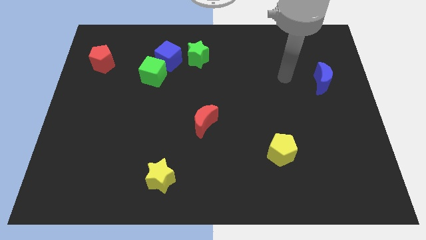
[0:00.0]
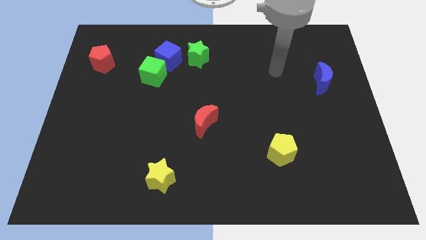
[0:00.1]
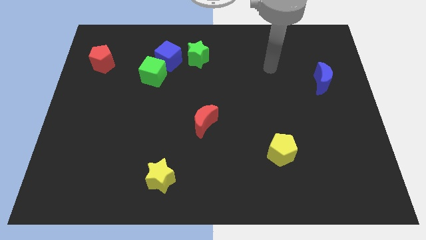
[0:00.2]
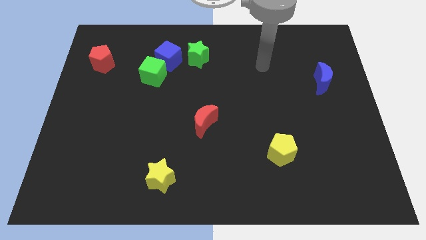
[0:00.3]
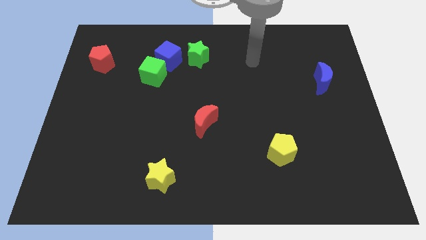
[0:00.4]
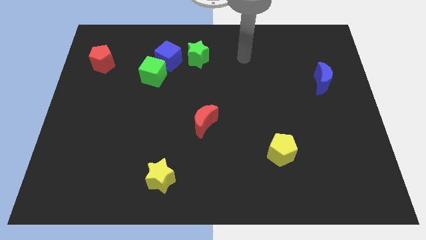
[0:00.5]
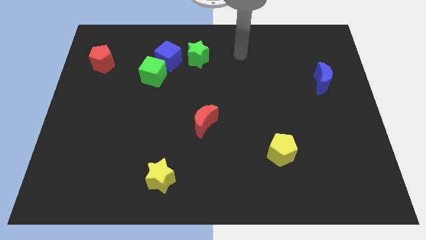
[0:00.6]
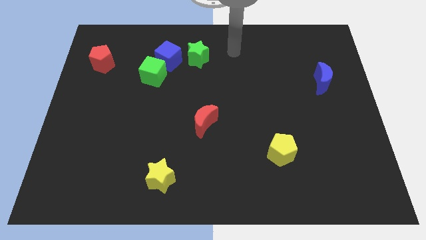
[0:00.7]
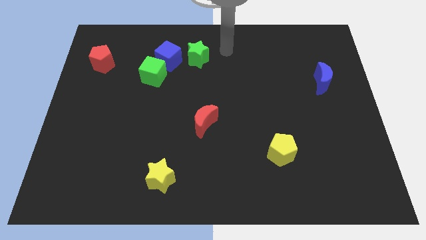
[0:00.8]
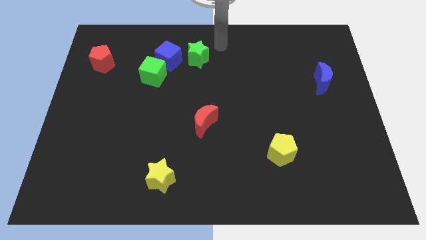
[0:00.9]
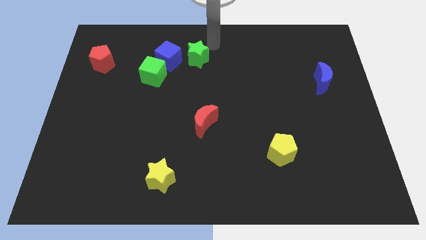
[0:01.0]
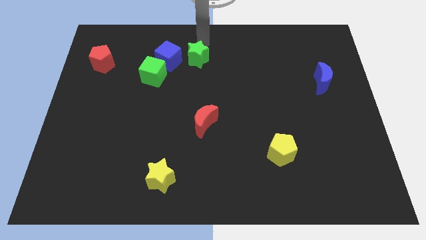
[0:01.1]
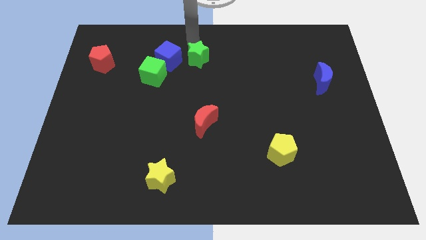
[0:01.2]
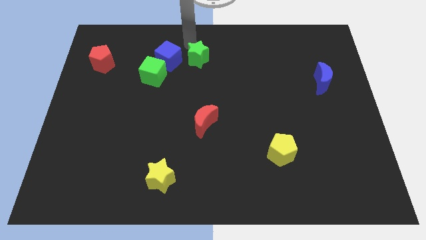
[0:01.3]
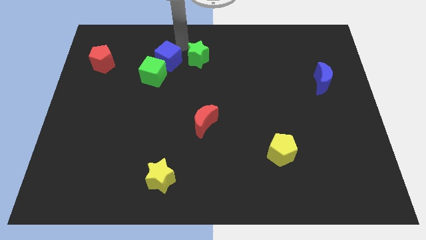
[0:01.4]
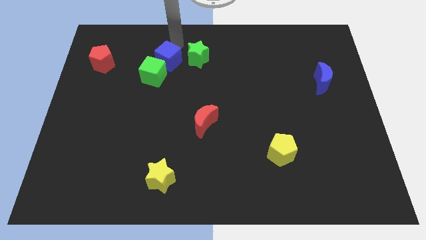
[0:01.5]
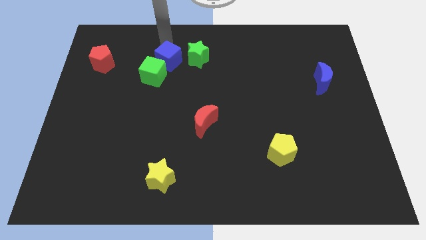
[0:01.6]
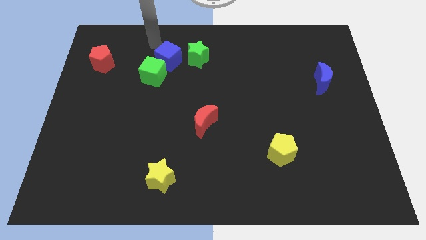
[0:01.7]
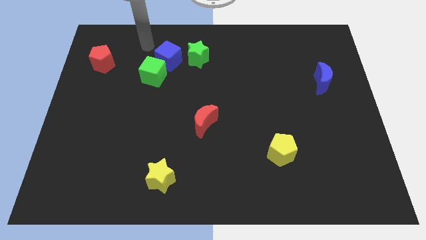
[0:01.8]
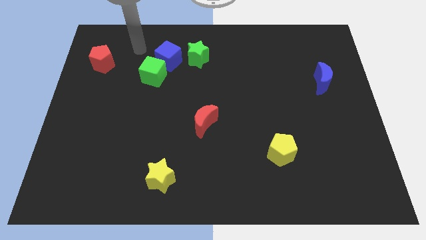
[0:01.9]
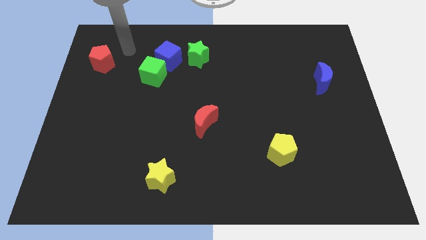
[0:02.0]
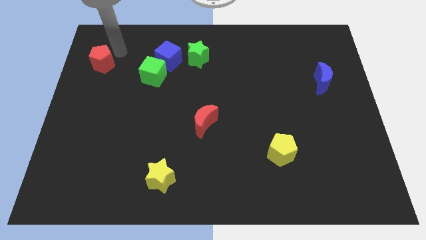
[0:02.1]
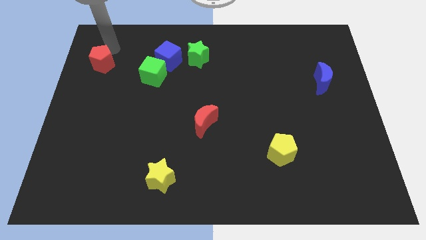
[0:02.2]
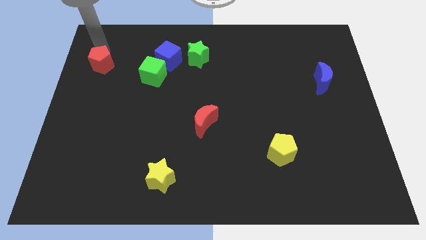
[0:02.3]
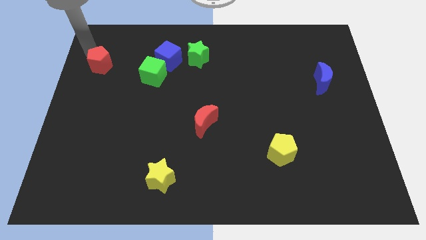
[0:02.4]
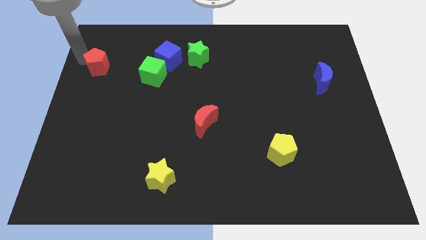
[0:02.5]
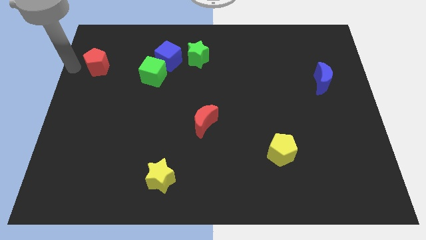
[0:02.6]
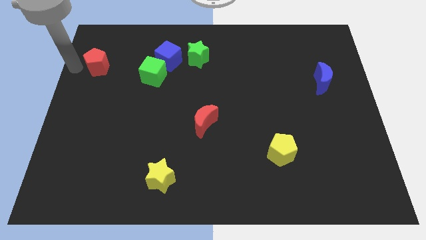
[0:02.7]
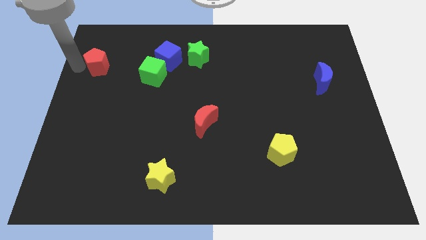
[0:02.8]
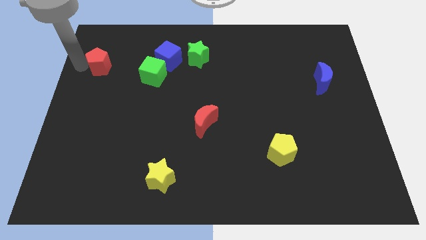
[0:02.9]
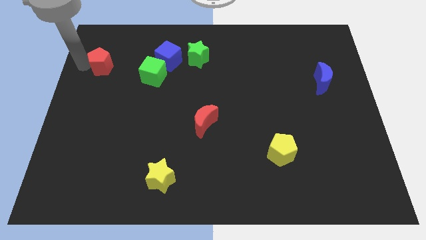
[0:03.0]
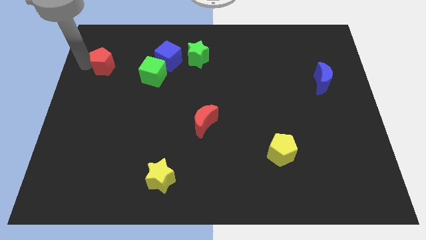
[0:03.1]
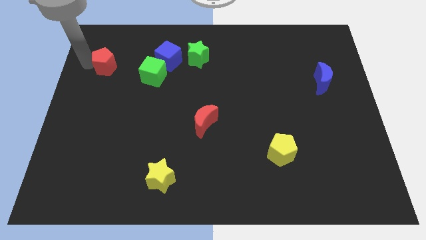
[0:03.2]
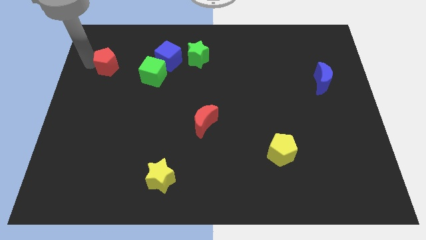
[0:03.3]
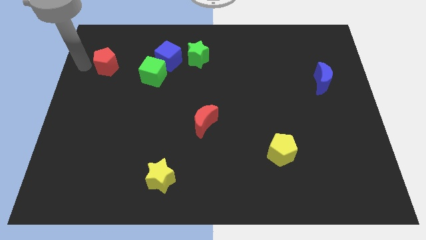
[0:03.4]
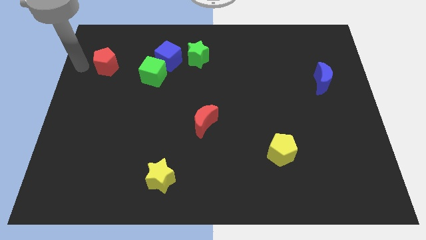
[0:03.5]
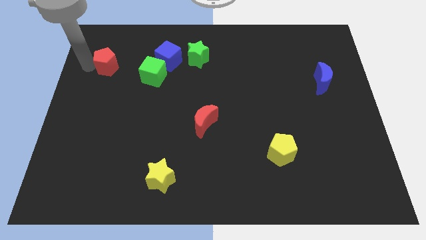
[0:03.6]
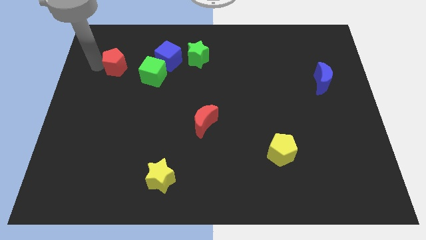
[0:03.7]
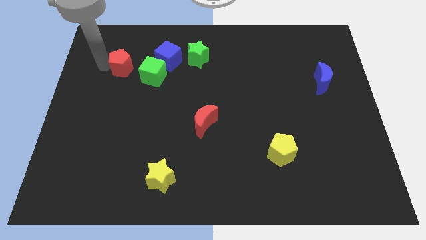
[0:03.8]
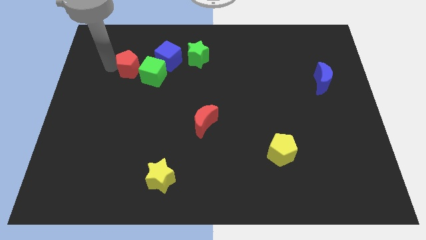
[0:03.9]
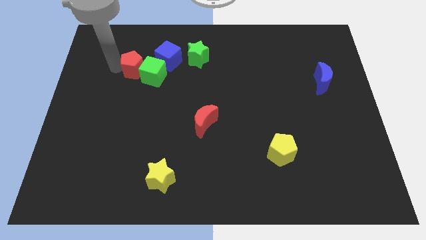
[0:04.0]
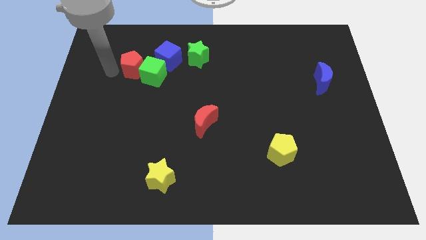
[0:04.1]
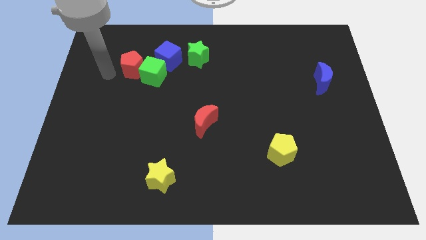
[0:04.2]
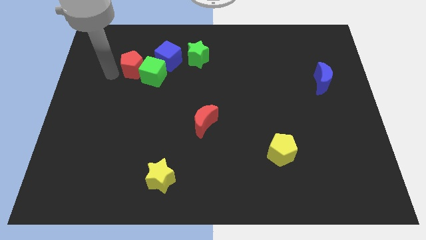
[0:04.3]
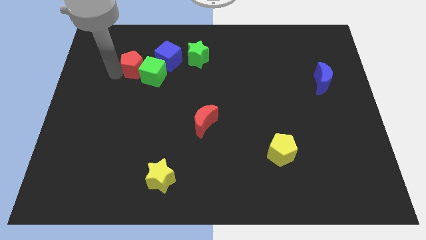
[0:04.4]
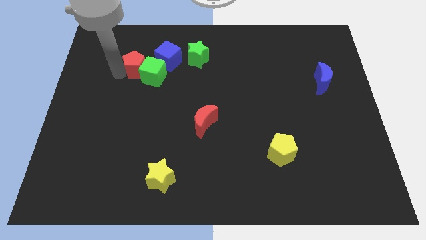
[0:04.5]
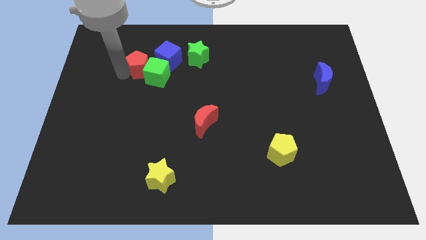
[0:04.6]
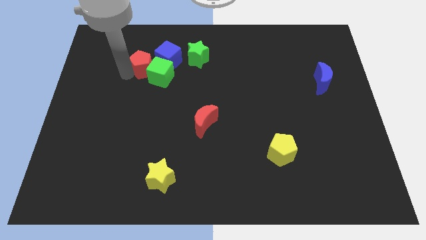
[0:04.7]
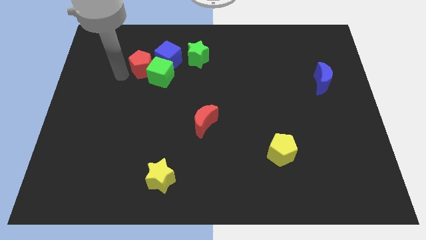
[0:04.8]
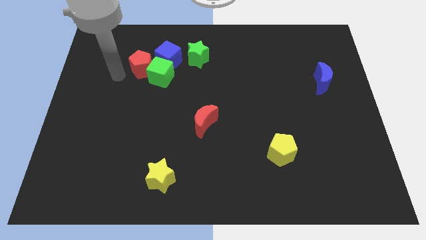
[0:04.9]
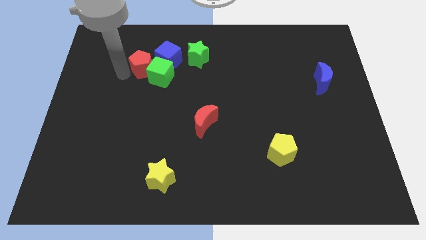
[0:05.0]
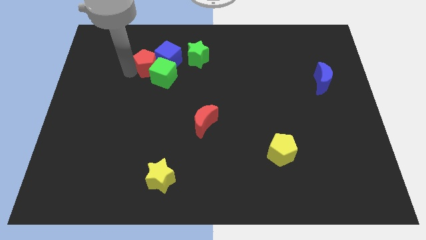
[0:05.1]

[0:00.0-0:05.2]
slide the red pentagon to the blue cube

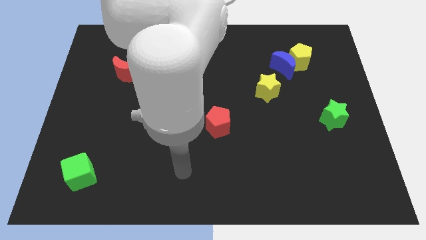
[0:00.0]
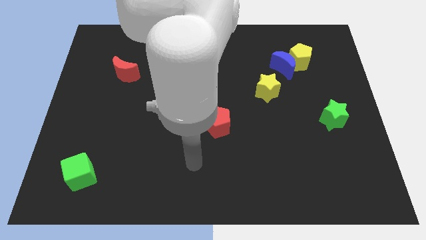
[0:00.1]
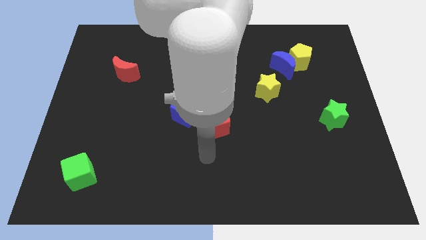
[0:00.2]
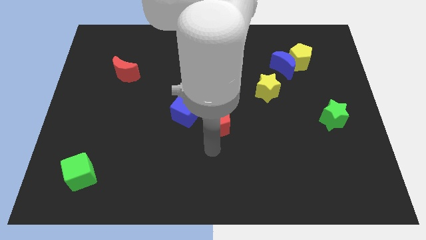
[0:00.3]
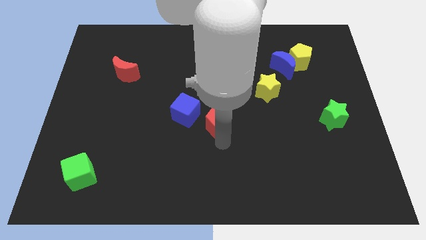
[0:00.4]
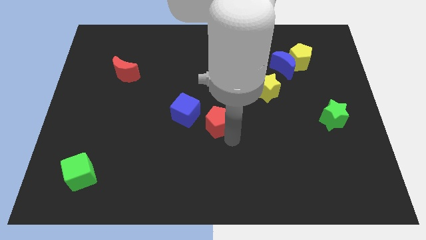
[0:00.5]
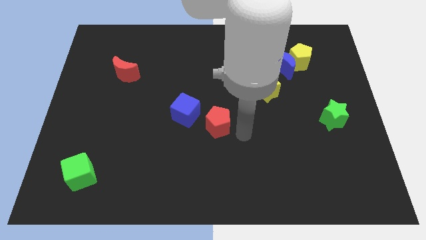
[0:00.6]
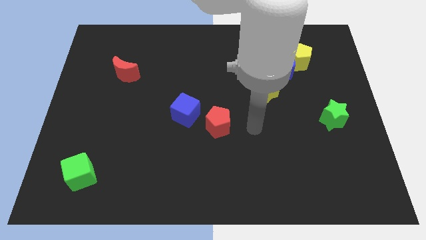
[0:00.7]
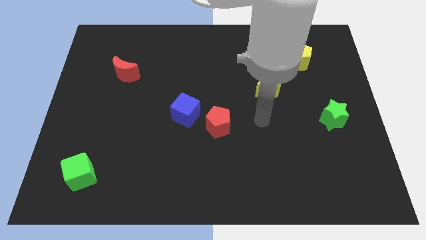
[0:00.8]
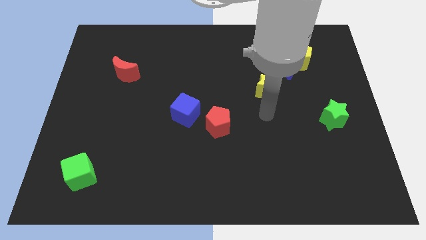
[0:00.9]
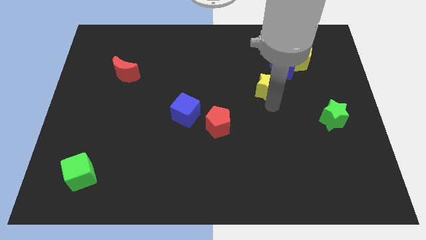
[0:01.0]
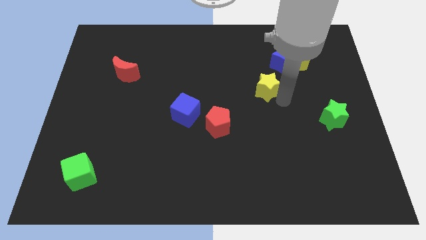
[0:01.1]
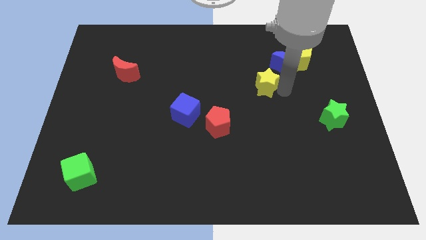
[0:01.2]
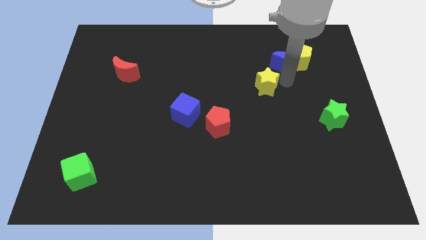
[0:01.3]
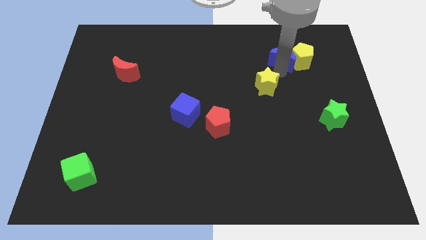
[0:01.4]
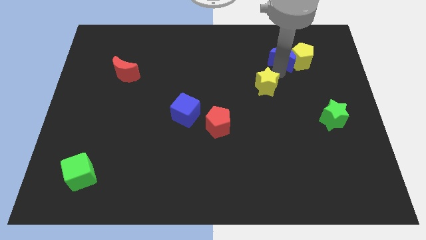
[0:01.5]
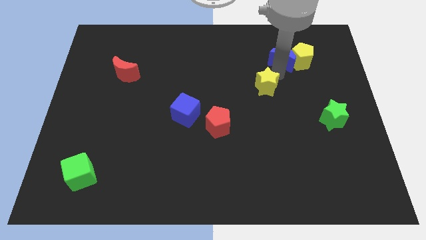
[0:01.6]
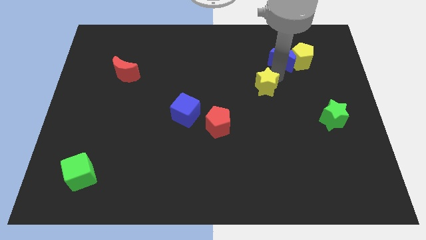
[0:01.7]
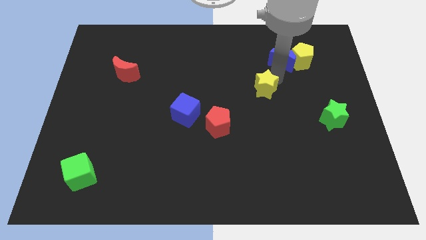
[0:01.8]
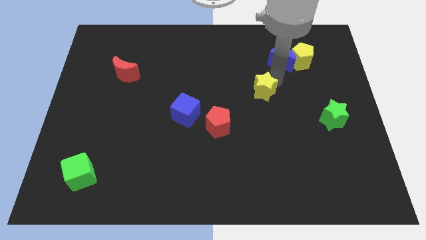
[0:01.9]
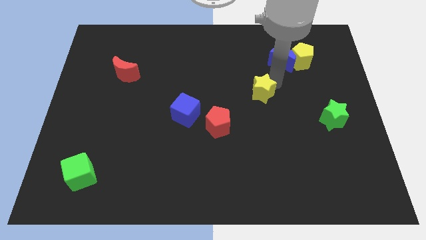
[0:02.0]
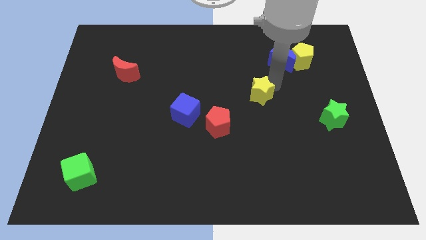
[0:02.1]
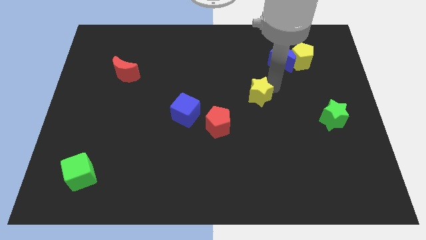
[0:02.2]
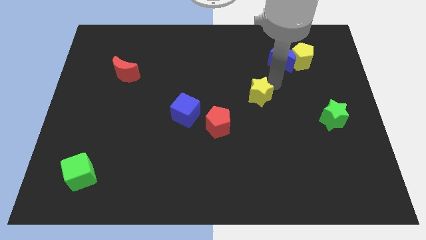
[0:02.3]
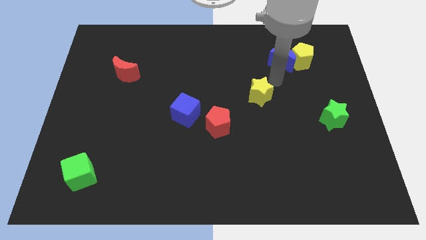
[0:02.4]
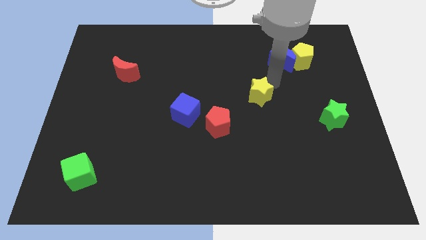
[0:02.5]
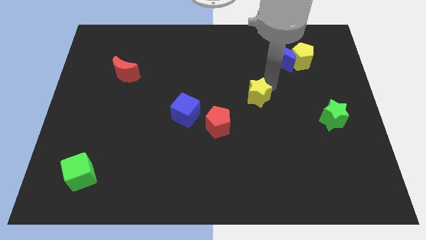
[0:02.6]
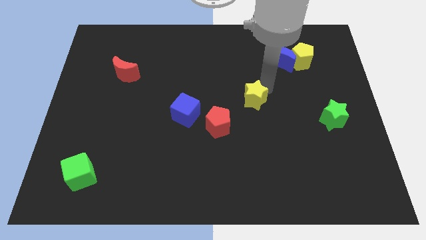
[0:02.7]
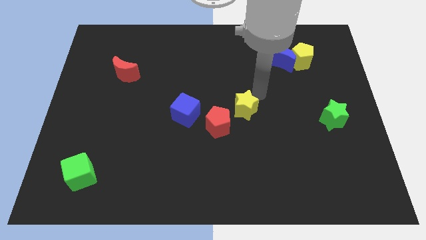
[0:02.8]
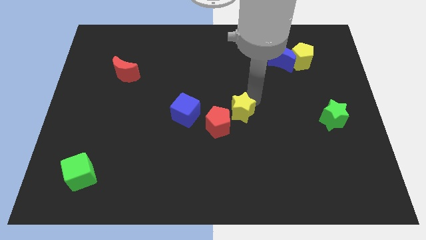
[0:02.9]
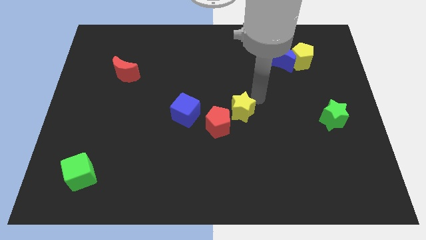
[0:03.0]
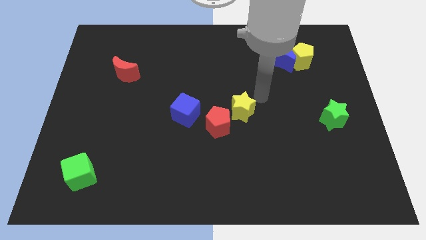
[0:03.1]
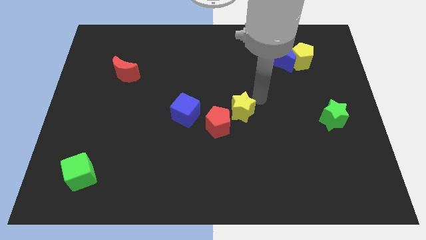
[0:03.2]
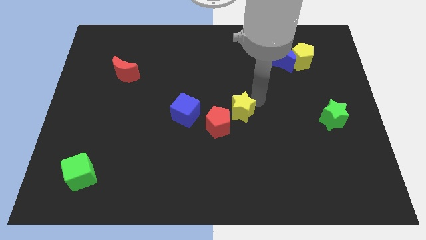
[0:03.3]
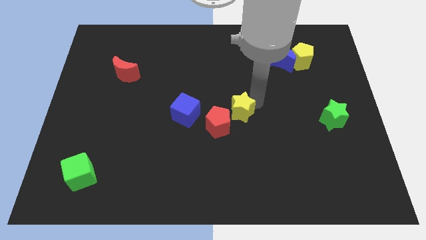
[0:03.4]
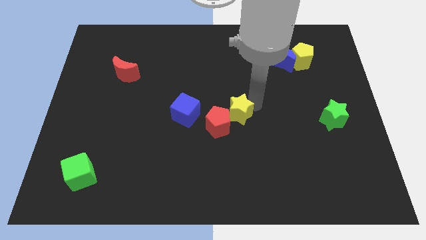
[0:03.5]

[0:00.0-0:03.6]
put the yellow star to the red pentagon
